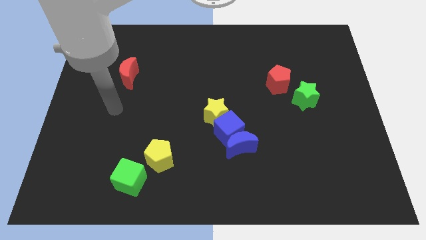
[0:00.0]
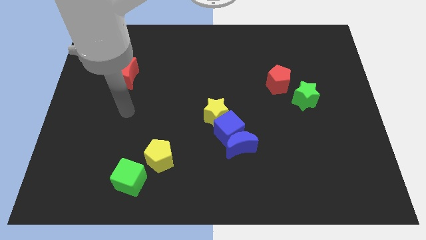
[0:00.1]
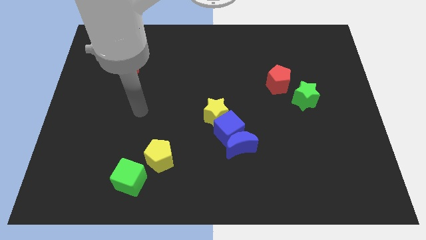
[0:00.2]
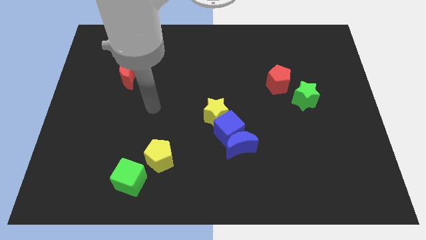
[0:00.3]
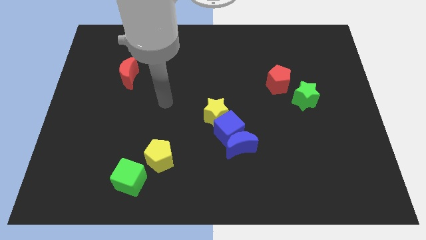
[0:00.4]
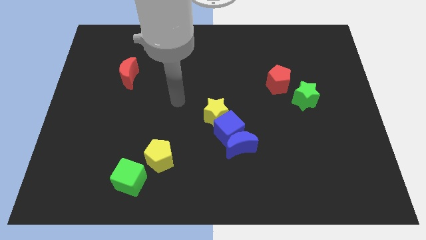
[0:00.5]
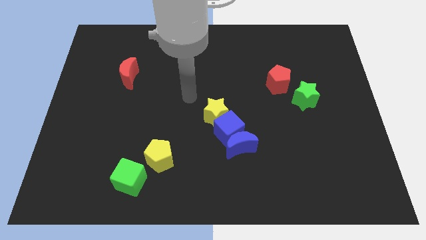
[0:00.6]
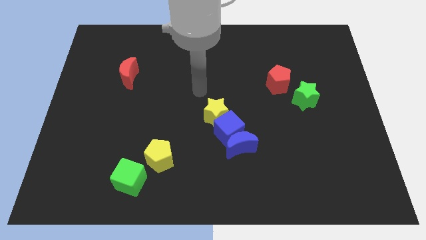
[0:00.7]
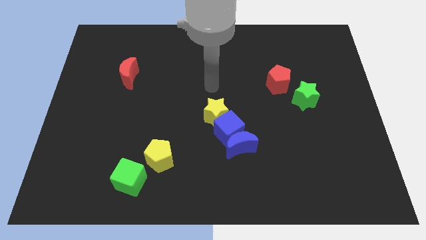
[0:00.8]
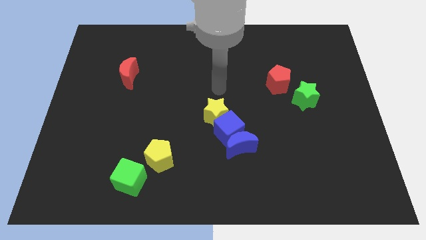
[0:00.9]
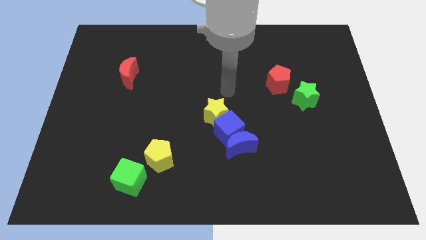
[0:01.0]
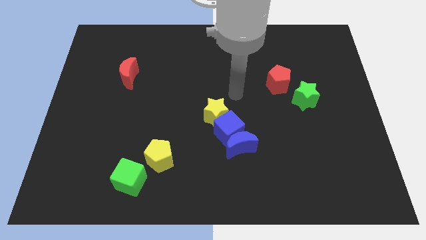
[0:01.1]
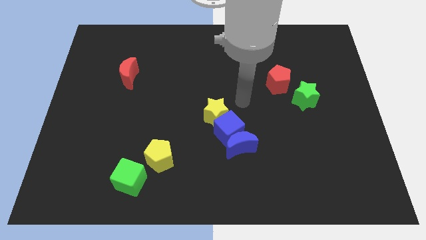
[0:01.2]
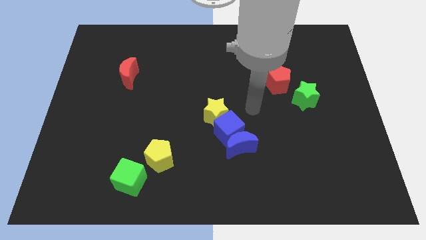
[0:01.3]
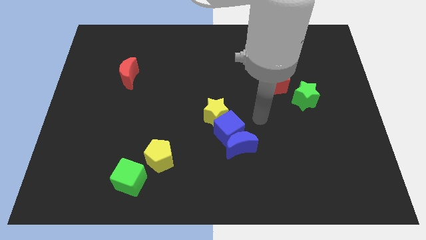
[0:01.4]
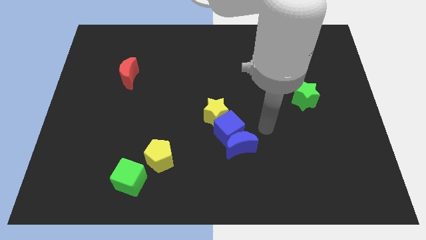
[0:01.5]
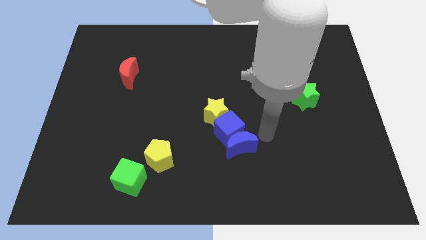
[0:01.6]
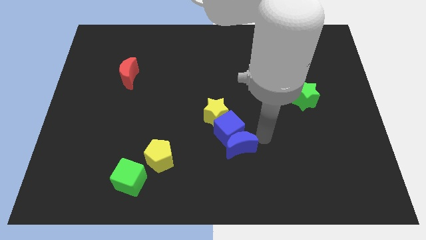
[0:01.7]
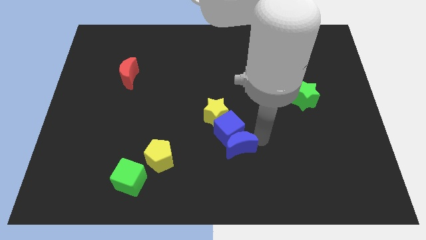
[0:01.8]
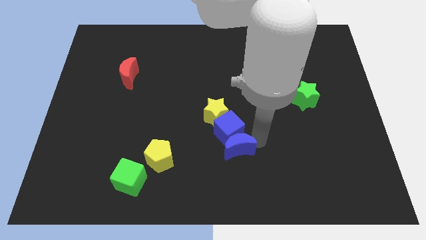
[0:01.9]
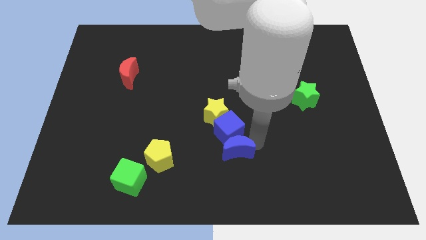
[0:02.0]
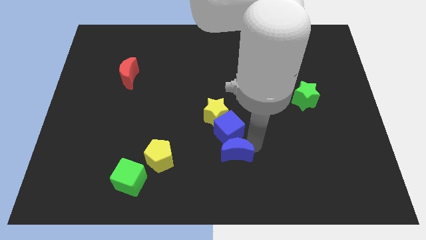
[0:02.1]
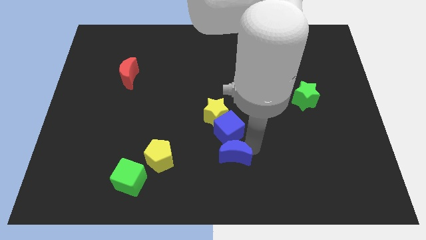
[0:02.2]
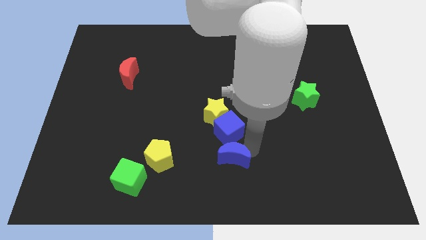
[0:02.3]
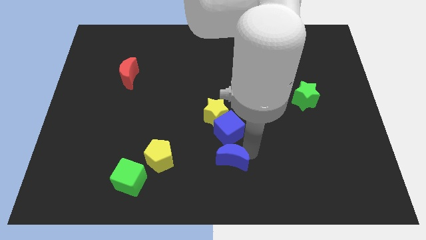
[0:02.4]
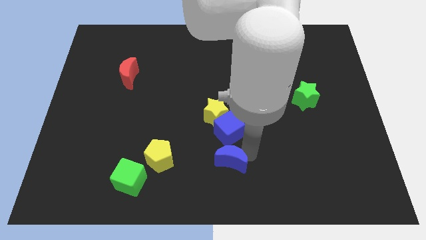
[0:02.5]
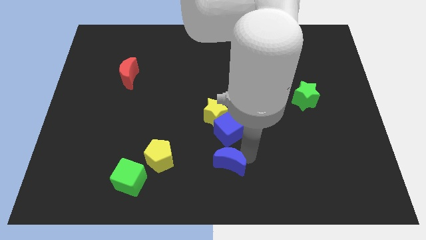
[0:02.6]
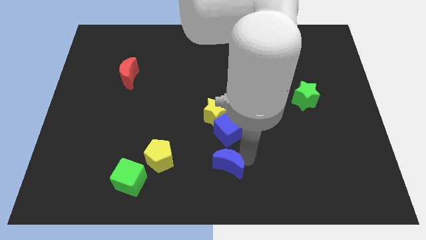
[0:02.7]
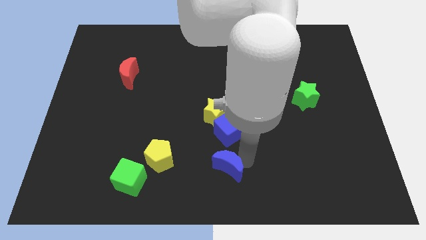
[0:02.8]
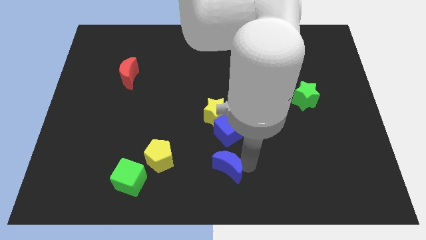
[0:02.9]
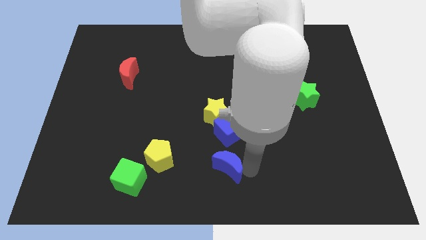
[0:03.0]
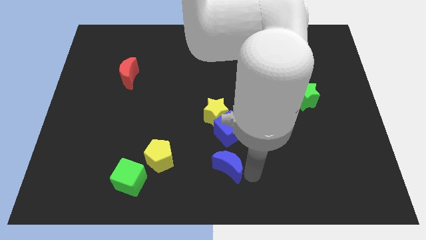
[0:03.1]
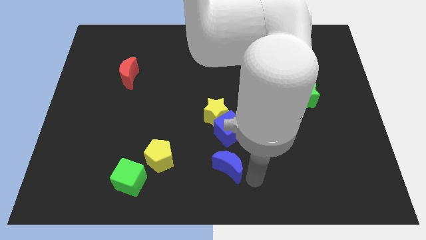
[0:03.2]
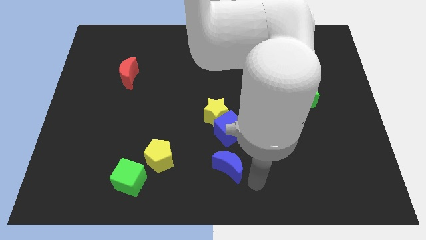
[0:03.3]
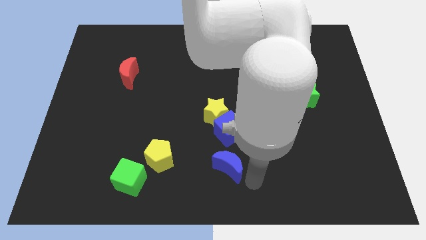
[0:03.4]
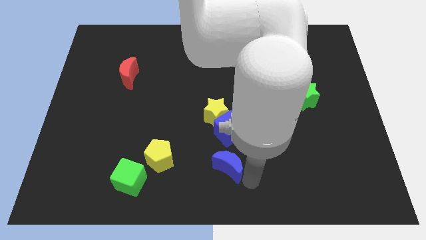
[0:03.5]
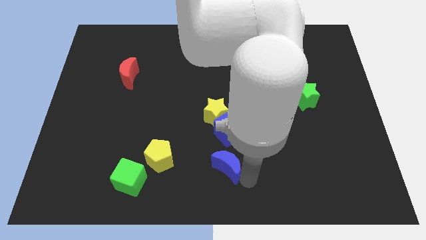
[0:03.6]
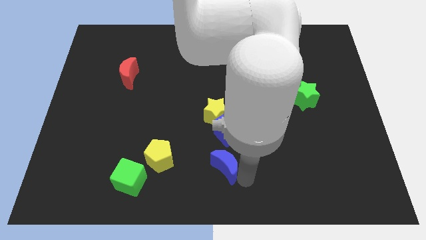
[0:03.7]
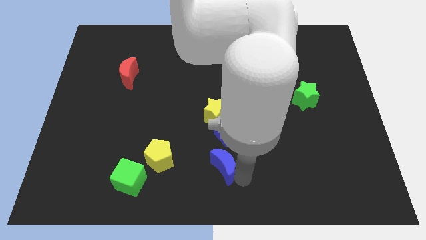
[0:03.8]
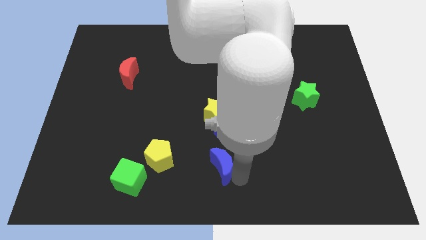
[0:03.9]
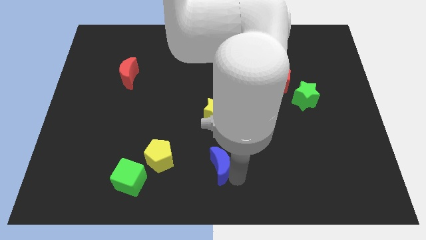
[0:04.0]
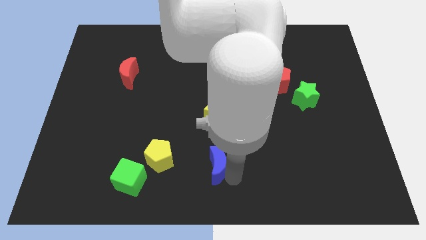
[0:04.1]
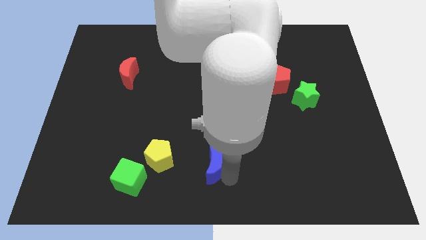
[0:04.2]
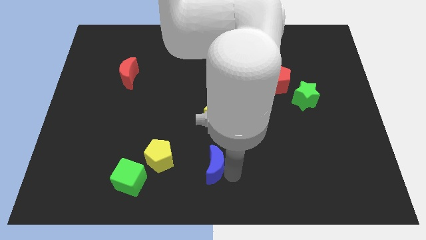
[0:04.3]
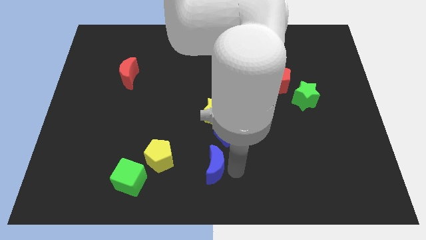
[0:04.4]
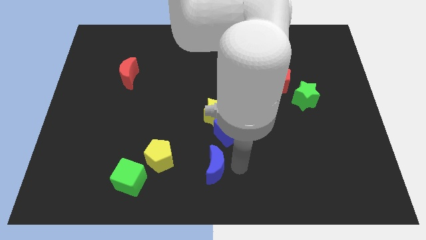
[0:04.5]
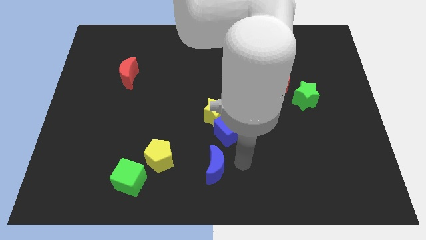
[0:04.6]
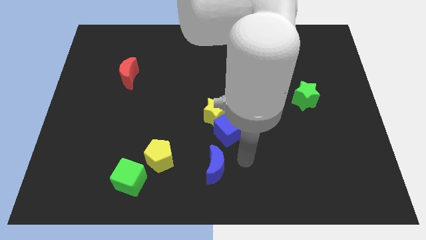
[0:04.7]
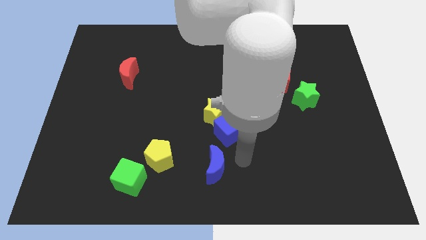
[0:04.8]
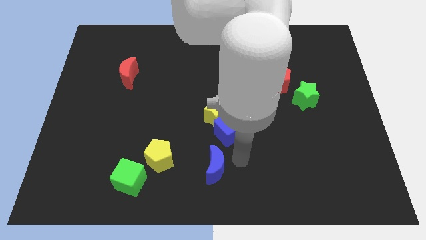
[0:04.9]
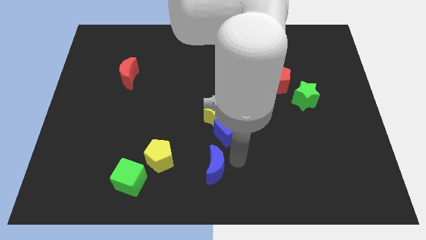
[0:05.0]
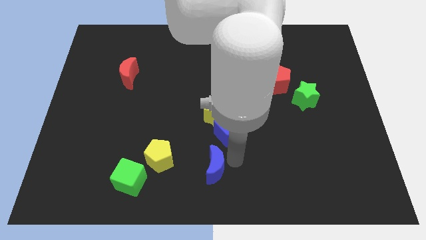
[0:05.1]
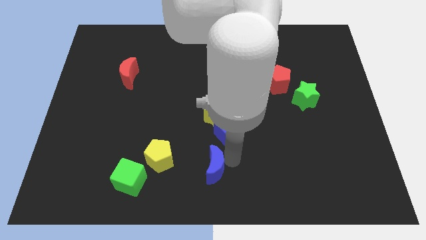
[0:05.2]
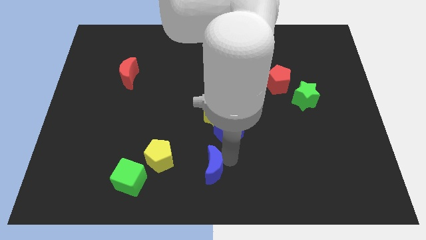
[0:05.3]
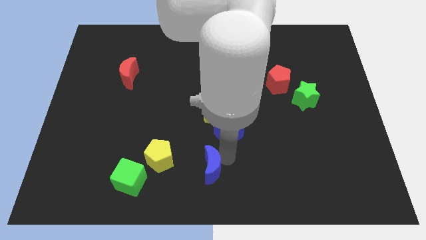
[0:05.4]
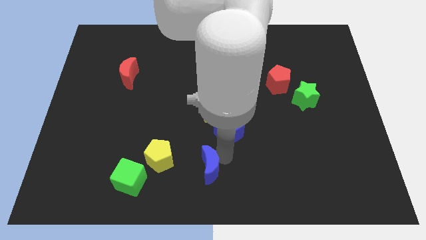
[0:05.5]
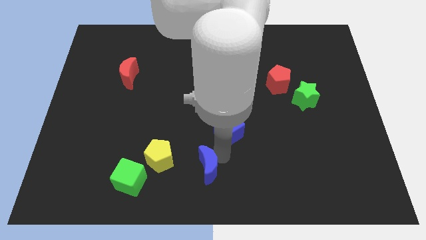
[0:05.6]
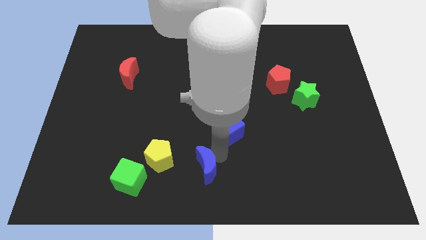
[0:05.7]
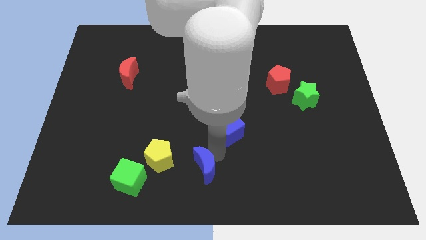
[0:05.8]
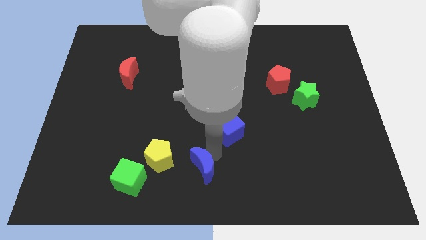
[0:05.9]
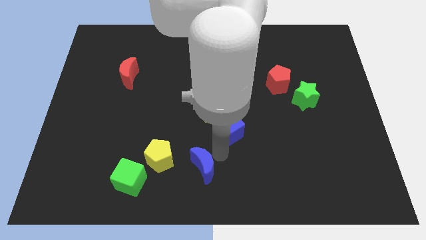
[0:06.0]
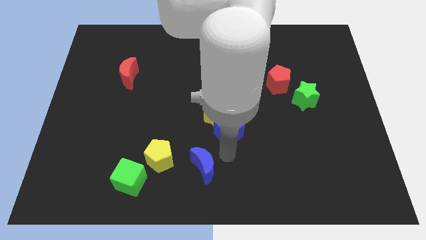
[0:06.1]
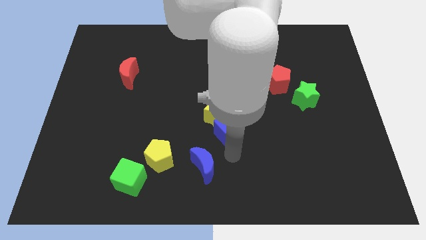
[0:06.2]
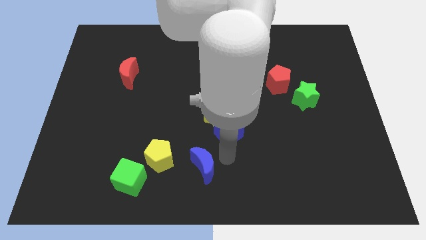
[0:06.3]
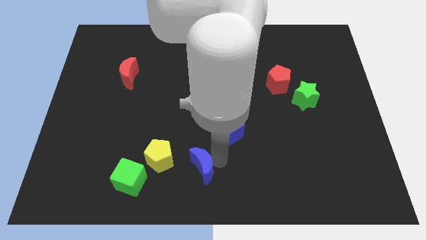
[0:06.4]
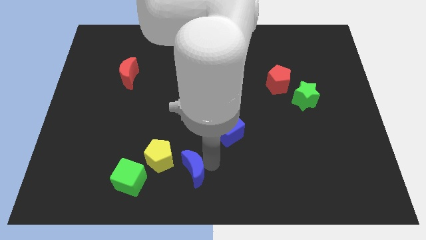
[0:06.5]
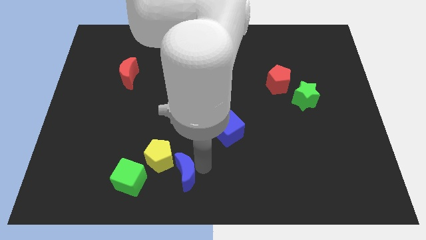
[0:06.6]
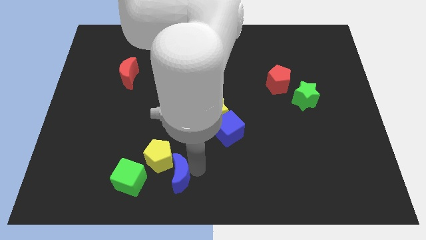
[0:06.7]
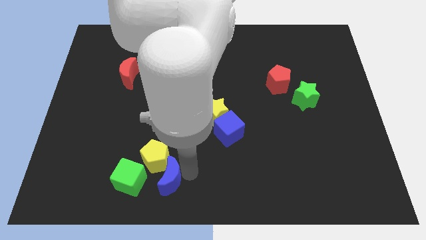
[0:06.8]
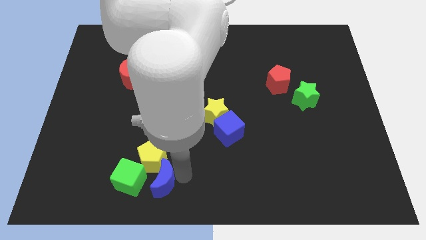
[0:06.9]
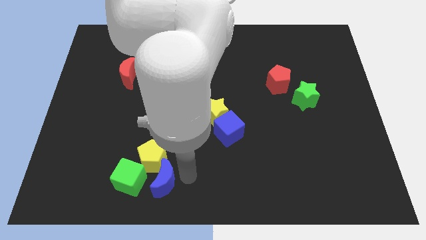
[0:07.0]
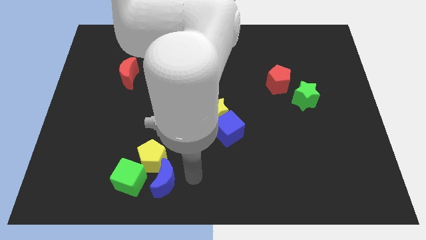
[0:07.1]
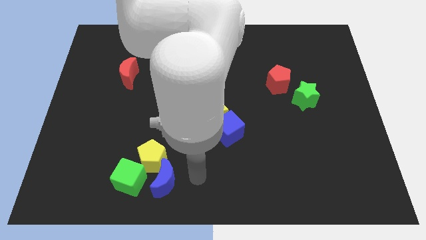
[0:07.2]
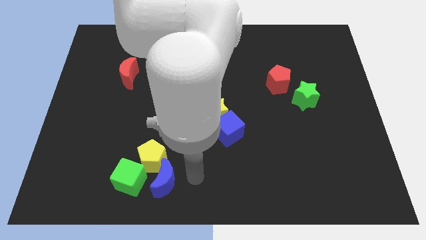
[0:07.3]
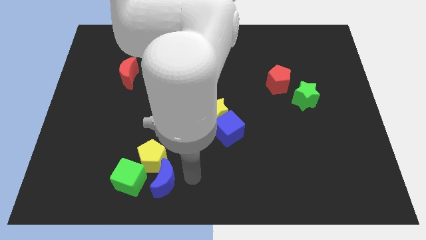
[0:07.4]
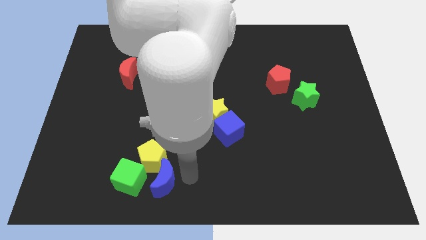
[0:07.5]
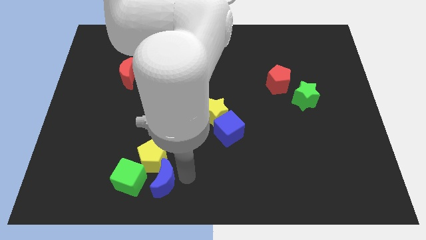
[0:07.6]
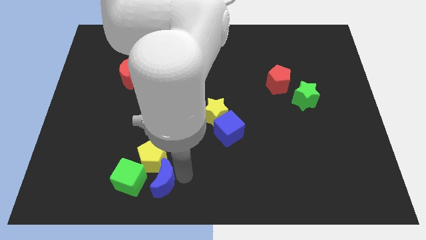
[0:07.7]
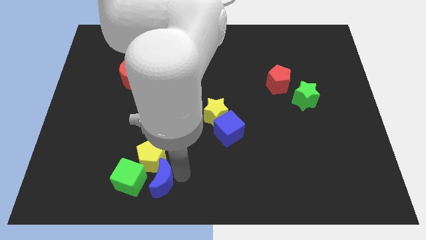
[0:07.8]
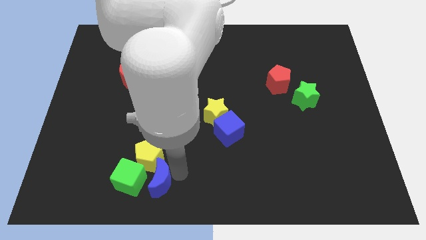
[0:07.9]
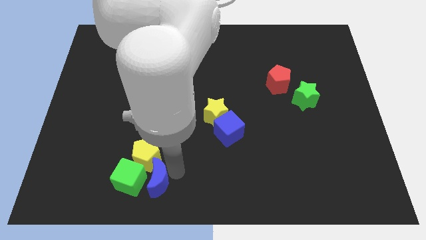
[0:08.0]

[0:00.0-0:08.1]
slide the blue moon close to the green cube
